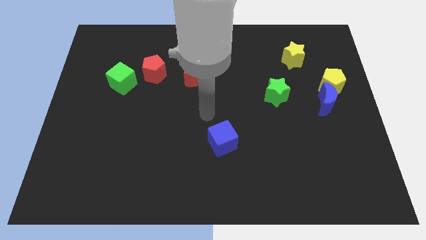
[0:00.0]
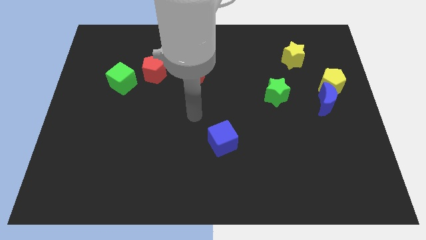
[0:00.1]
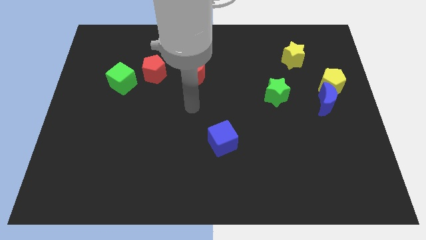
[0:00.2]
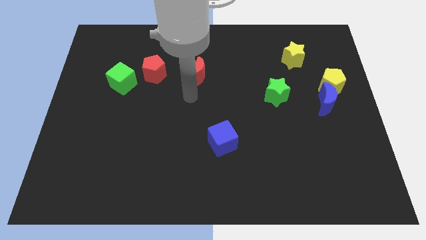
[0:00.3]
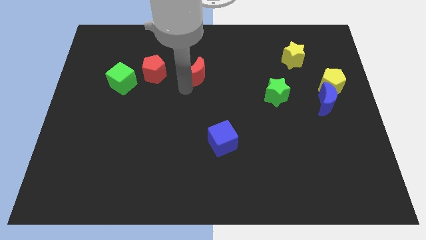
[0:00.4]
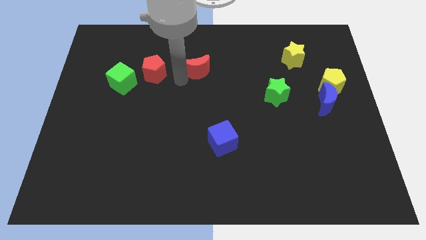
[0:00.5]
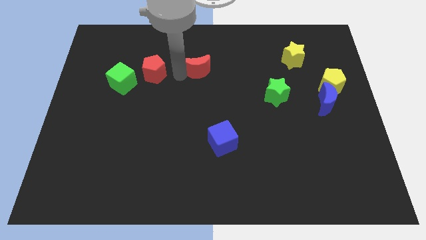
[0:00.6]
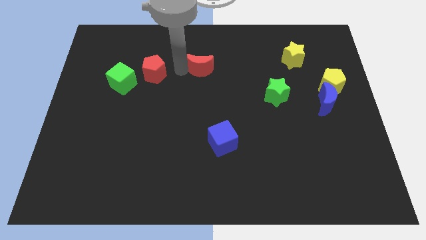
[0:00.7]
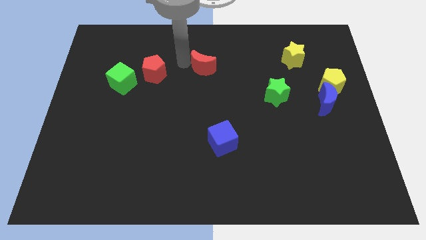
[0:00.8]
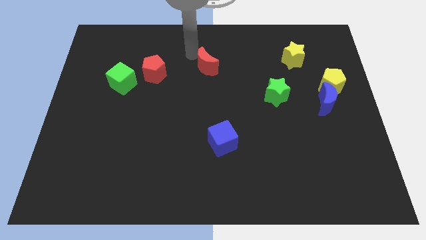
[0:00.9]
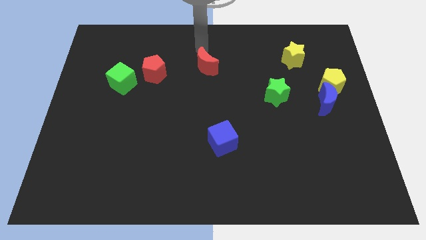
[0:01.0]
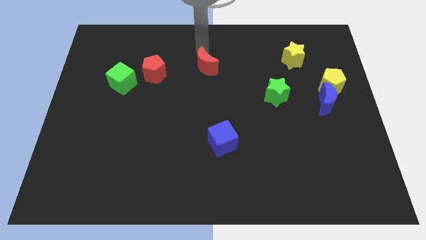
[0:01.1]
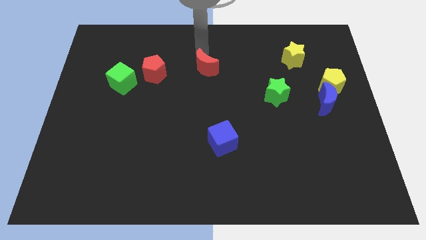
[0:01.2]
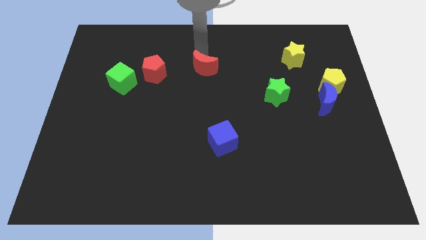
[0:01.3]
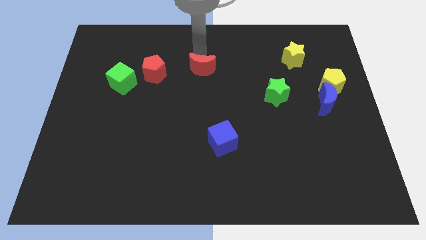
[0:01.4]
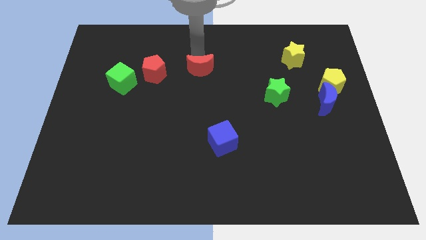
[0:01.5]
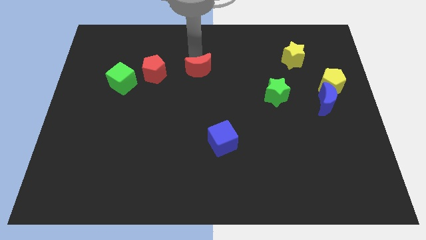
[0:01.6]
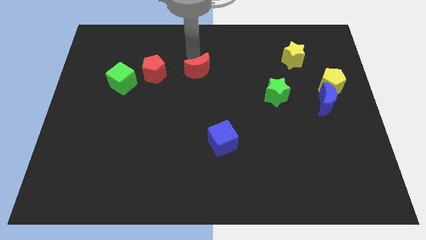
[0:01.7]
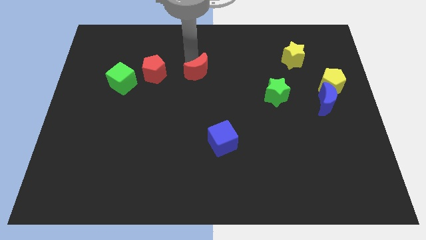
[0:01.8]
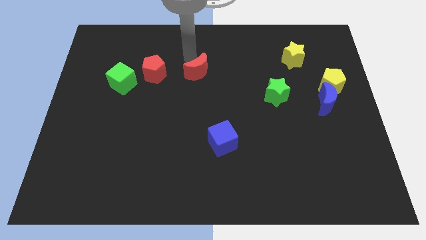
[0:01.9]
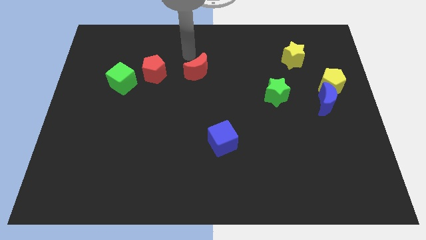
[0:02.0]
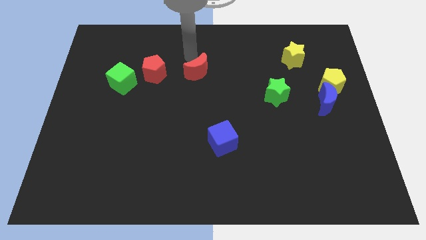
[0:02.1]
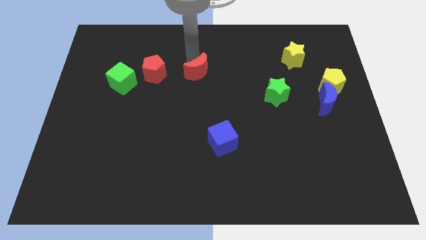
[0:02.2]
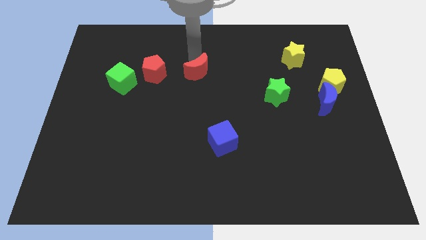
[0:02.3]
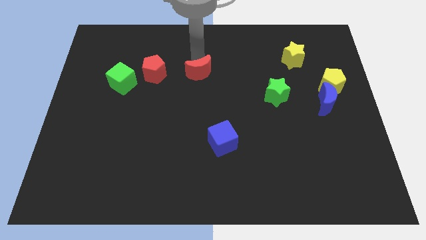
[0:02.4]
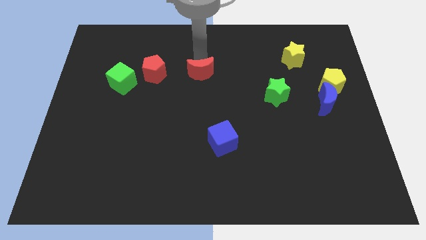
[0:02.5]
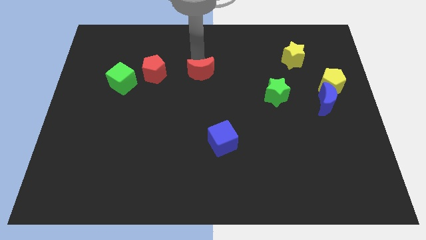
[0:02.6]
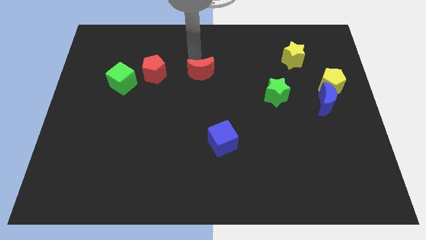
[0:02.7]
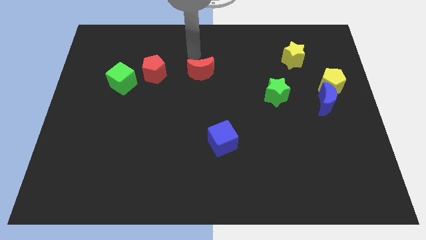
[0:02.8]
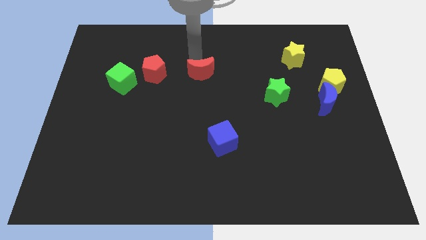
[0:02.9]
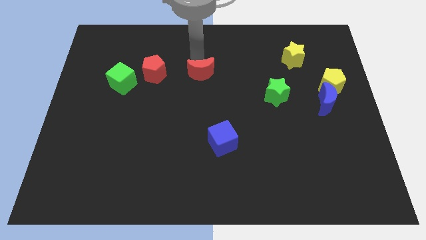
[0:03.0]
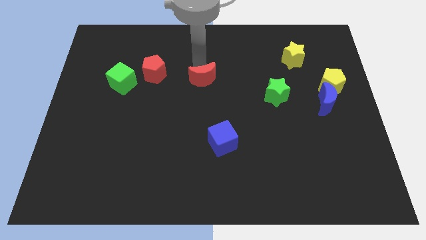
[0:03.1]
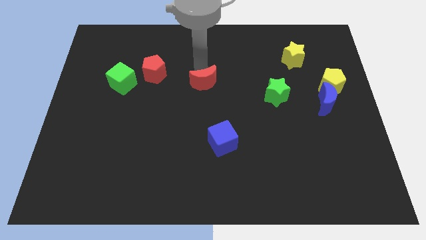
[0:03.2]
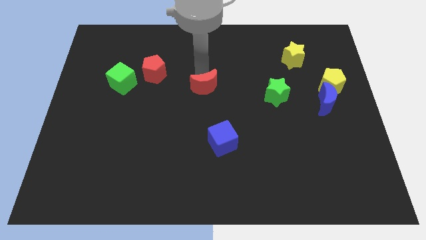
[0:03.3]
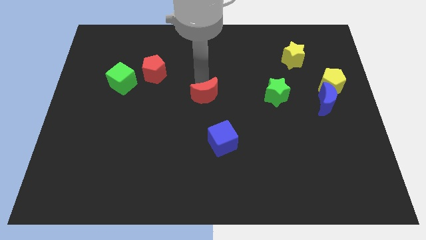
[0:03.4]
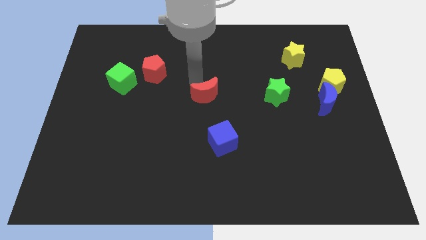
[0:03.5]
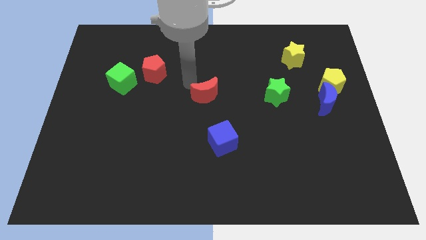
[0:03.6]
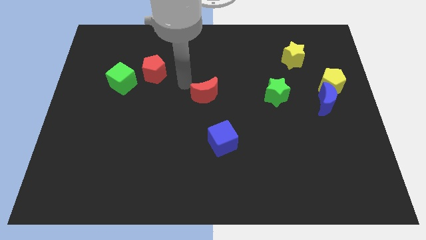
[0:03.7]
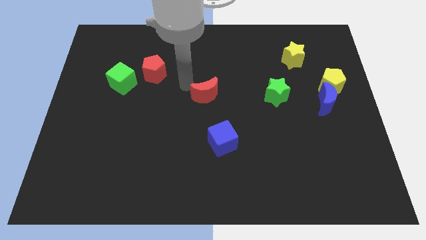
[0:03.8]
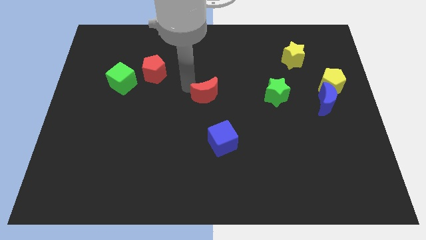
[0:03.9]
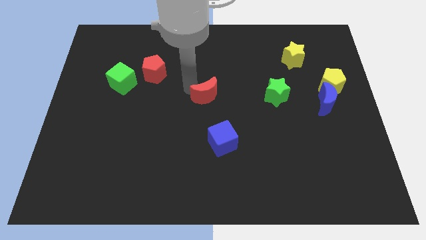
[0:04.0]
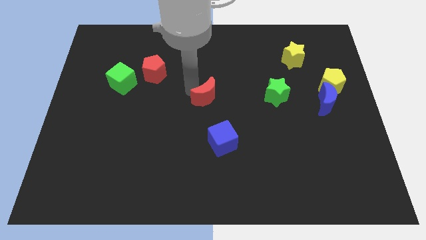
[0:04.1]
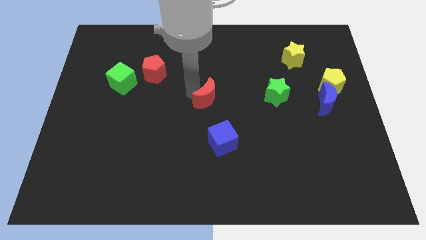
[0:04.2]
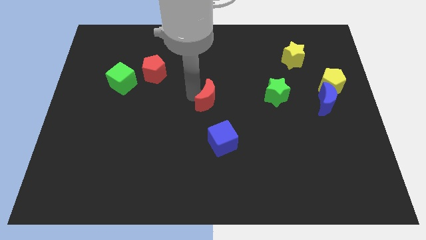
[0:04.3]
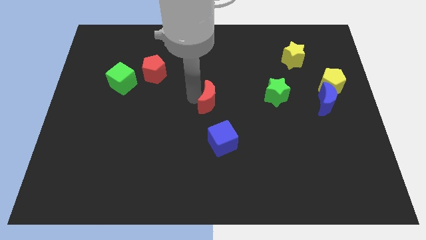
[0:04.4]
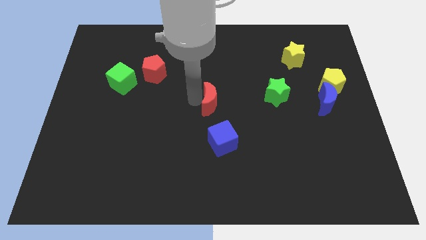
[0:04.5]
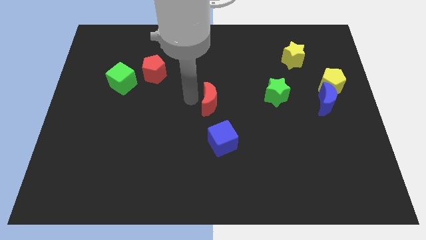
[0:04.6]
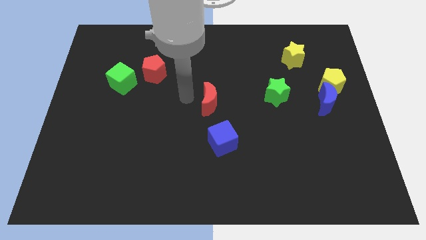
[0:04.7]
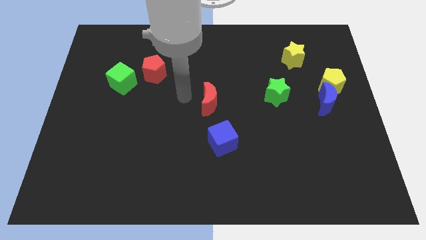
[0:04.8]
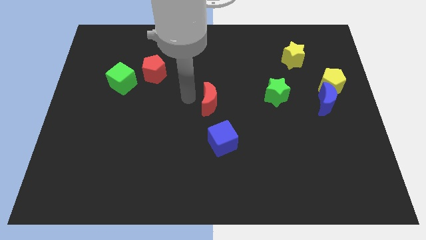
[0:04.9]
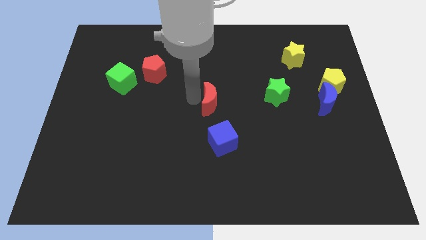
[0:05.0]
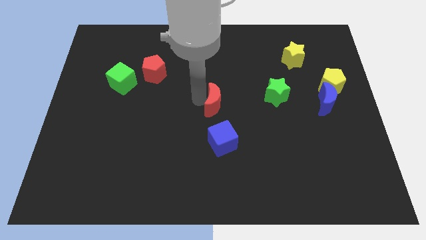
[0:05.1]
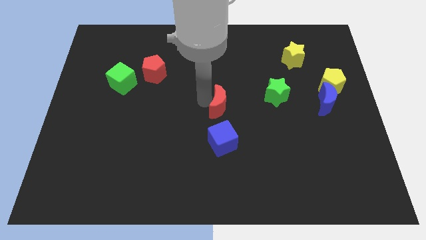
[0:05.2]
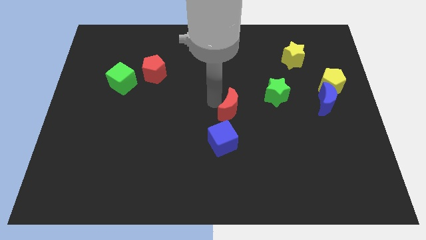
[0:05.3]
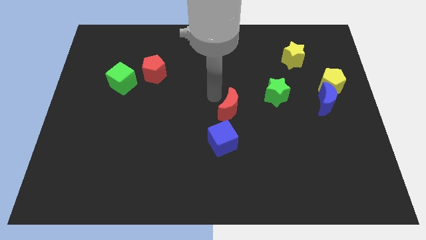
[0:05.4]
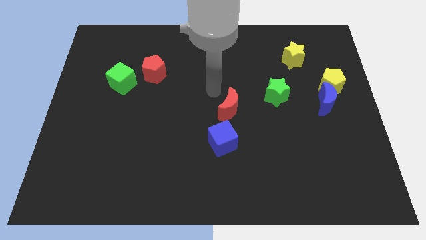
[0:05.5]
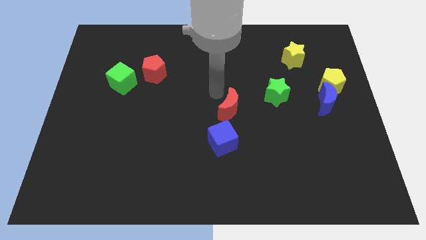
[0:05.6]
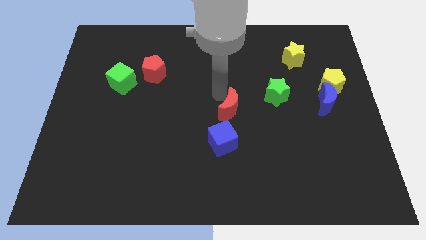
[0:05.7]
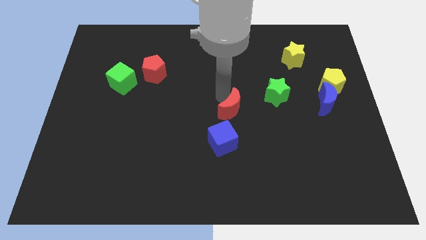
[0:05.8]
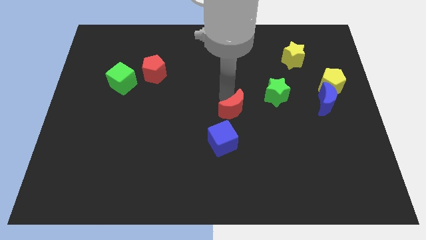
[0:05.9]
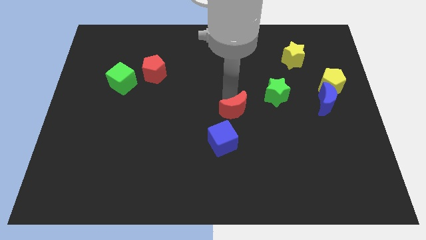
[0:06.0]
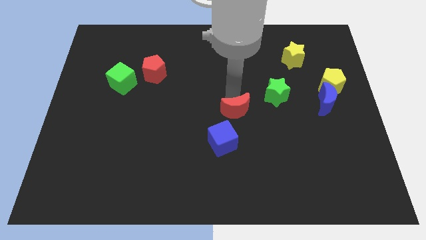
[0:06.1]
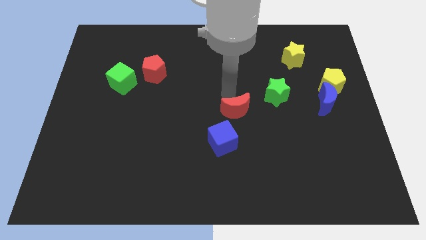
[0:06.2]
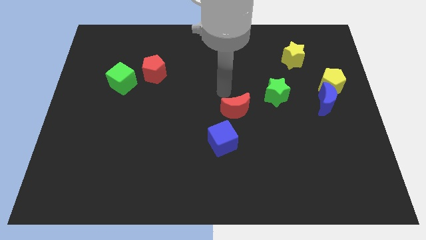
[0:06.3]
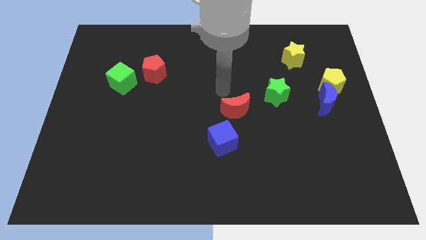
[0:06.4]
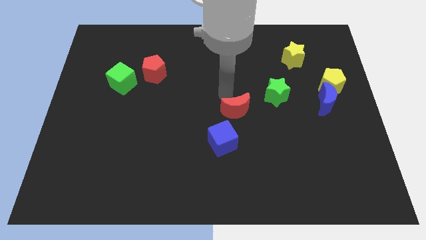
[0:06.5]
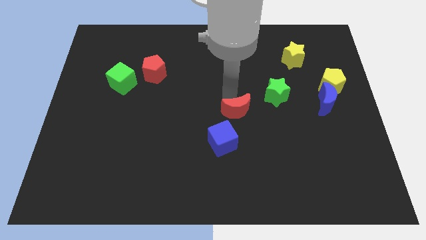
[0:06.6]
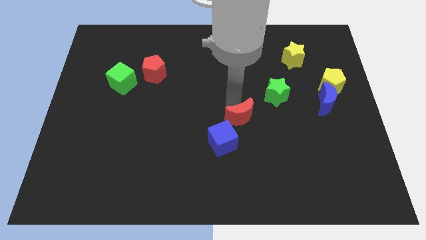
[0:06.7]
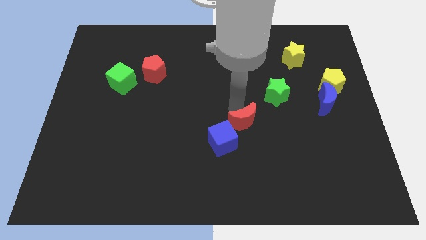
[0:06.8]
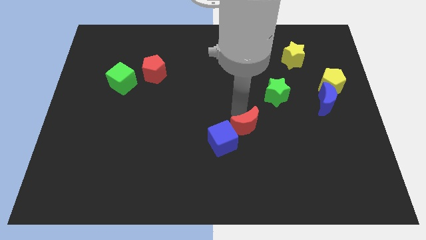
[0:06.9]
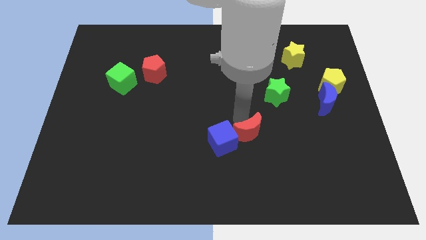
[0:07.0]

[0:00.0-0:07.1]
slide the red moon downwards and then right

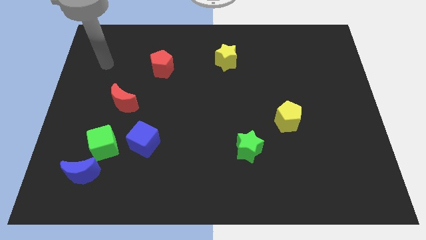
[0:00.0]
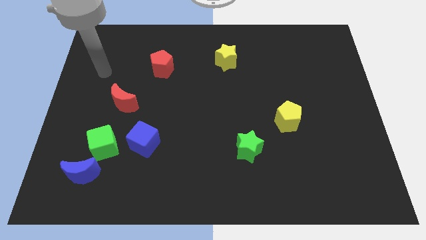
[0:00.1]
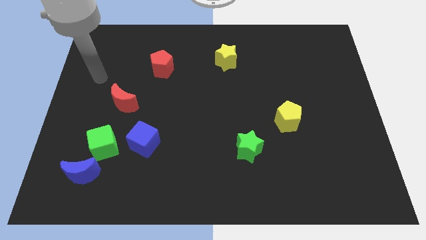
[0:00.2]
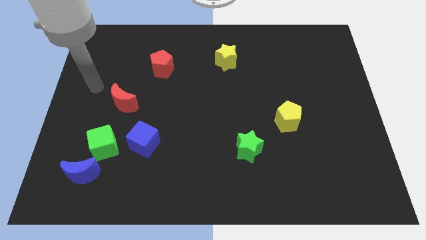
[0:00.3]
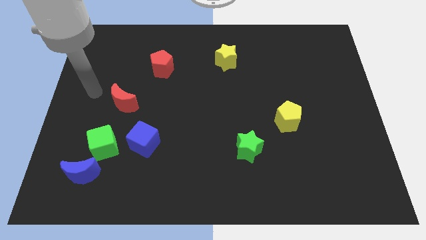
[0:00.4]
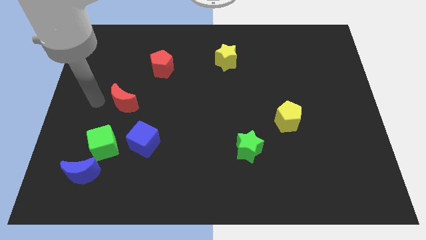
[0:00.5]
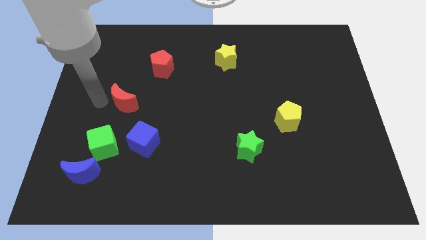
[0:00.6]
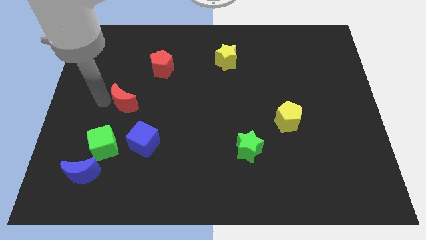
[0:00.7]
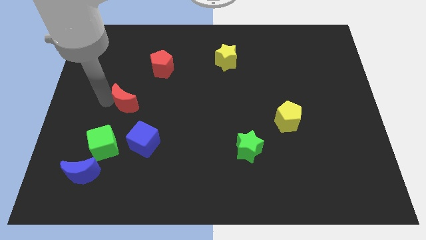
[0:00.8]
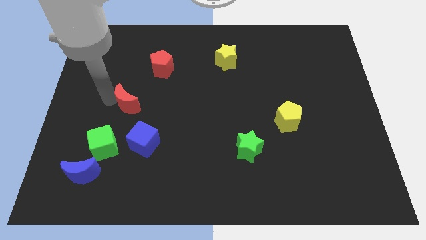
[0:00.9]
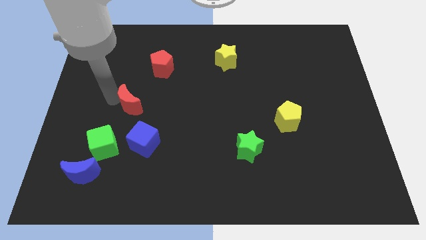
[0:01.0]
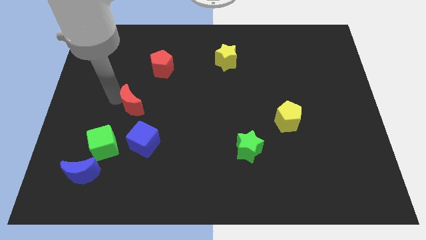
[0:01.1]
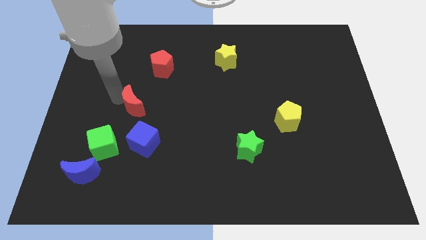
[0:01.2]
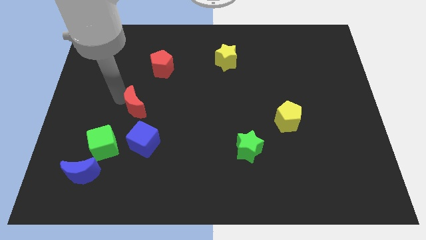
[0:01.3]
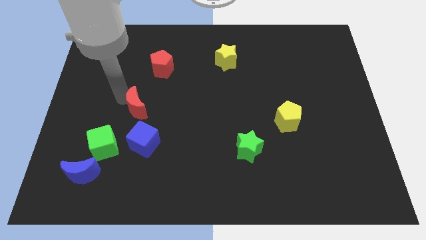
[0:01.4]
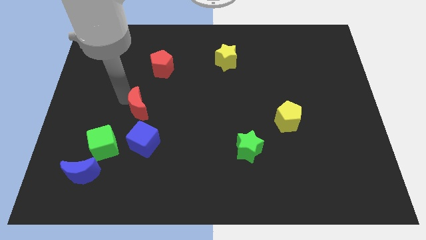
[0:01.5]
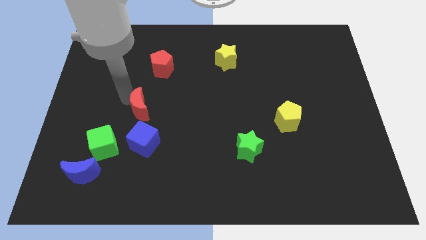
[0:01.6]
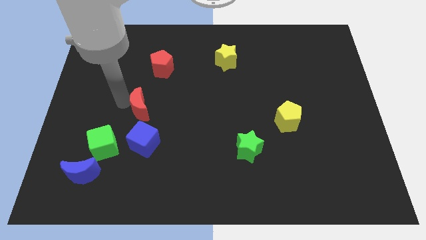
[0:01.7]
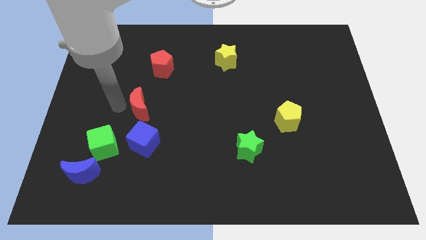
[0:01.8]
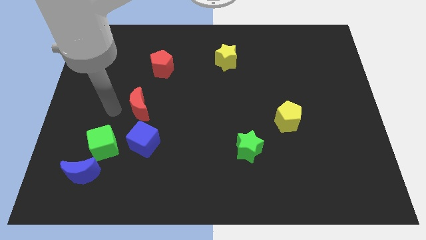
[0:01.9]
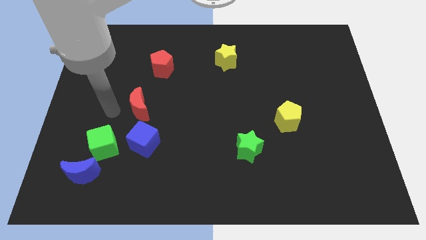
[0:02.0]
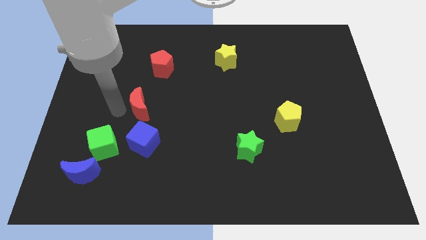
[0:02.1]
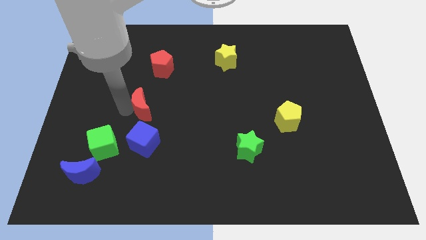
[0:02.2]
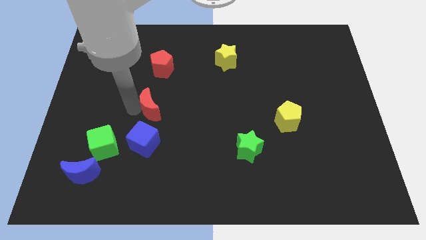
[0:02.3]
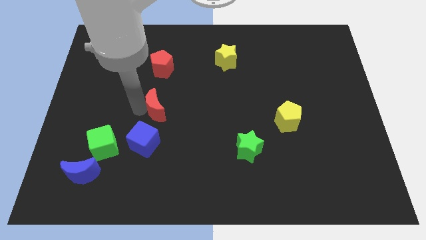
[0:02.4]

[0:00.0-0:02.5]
slide the red moon to the right a little bit
